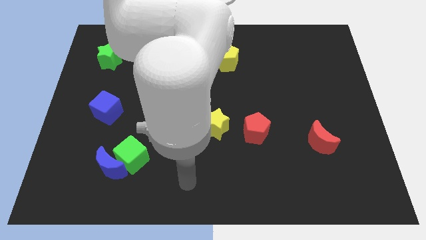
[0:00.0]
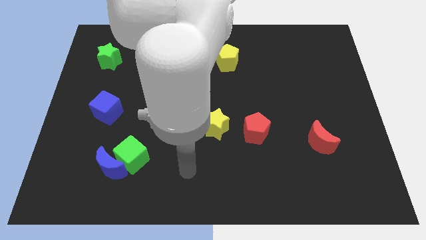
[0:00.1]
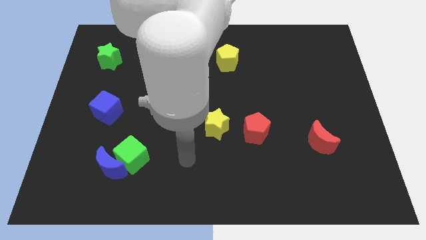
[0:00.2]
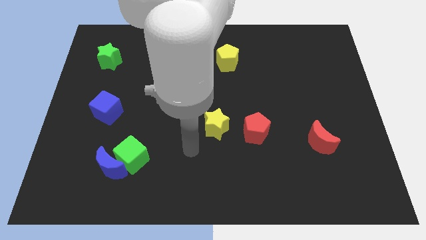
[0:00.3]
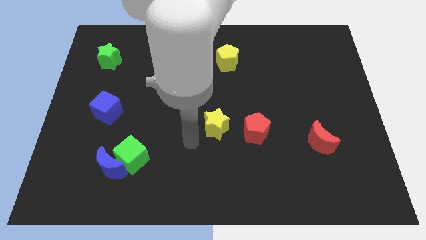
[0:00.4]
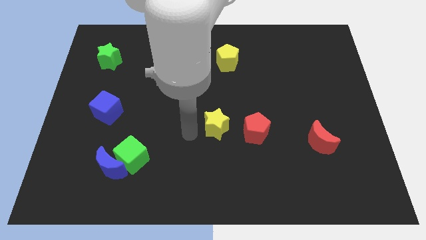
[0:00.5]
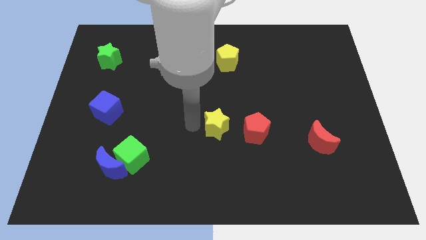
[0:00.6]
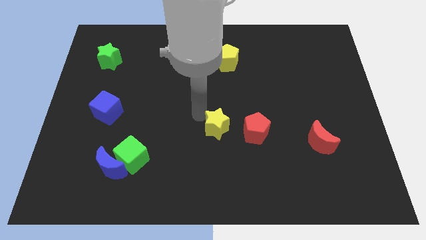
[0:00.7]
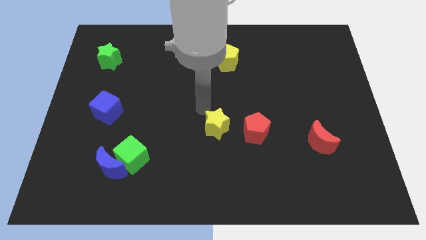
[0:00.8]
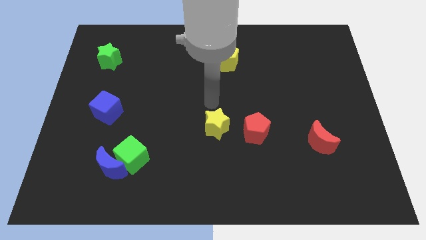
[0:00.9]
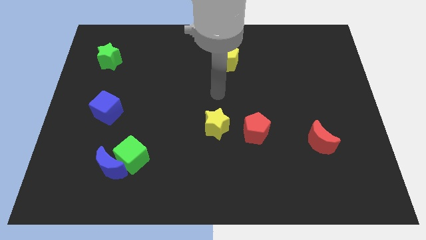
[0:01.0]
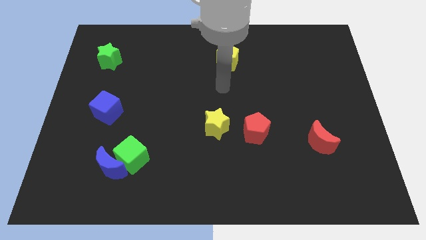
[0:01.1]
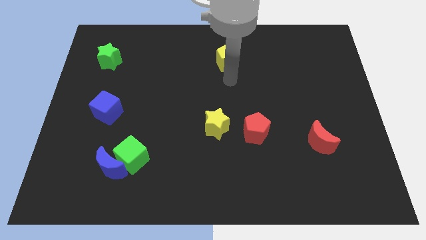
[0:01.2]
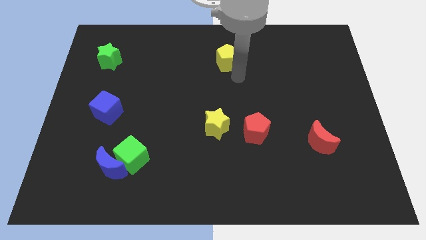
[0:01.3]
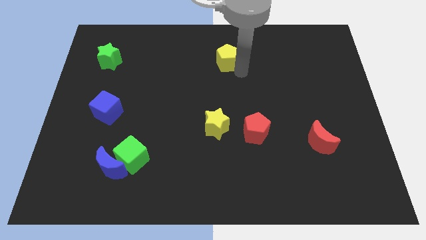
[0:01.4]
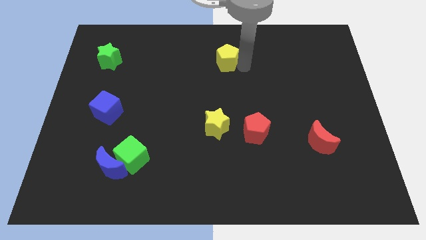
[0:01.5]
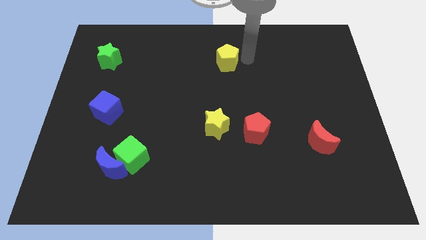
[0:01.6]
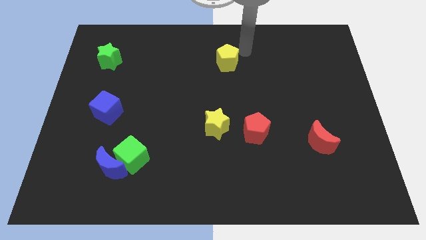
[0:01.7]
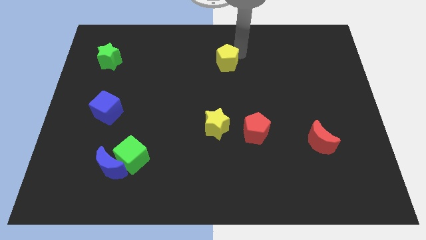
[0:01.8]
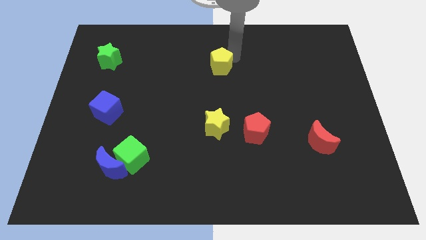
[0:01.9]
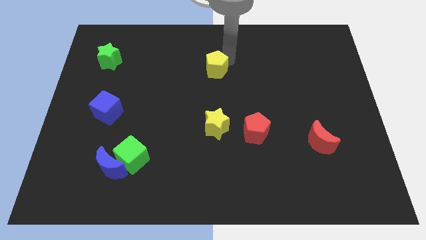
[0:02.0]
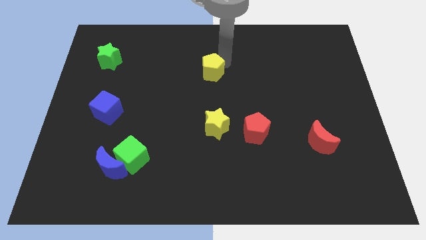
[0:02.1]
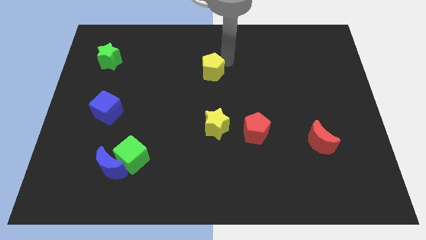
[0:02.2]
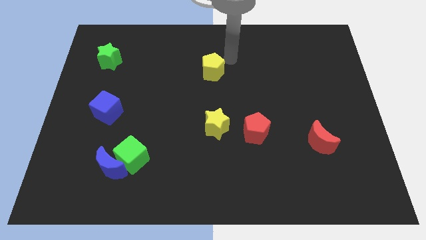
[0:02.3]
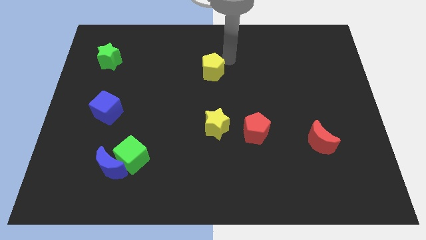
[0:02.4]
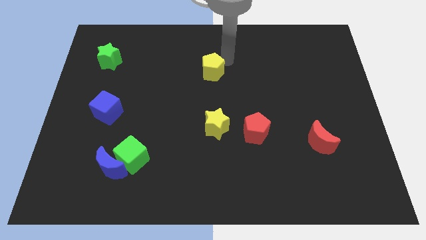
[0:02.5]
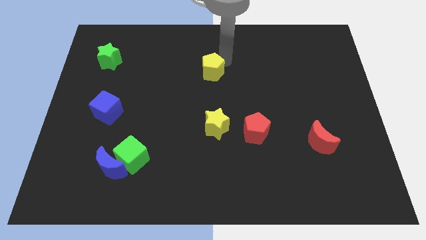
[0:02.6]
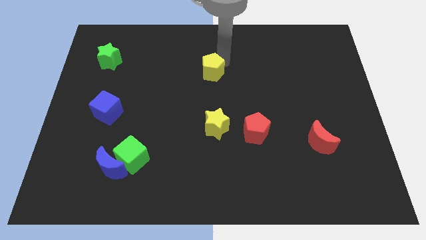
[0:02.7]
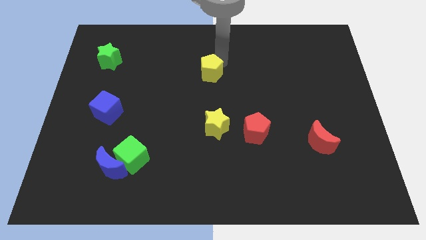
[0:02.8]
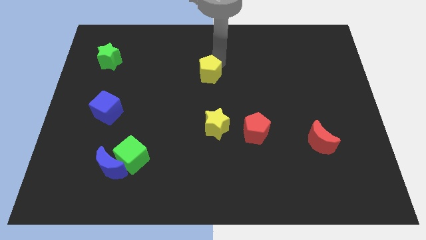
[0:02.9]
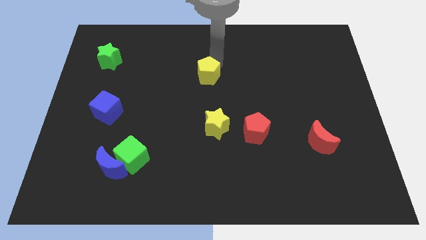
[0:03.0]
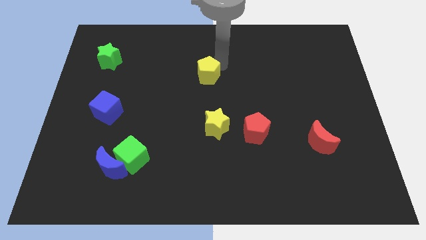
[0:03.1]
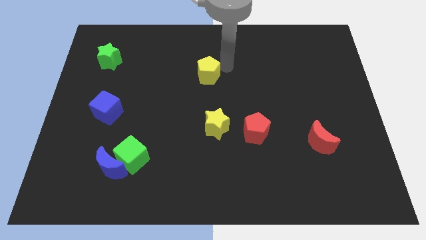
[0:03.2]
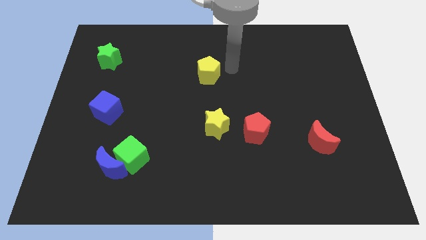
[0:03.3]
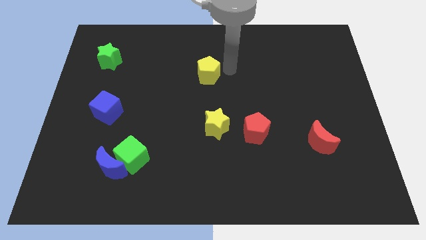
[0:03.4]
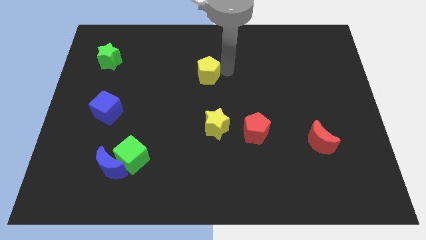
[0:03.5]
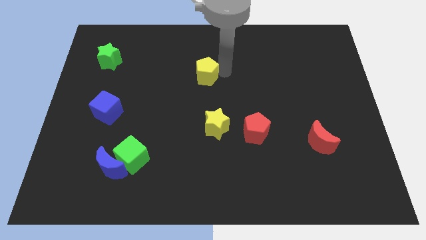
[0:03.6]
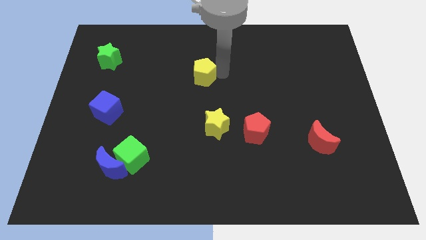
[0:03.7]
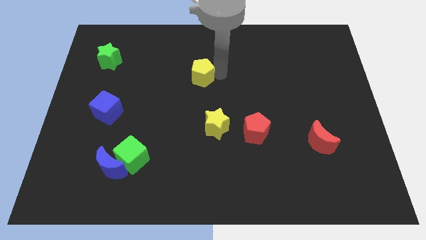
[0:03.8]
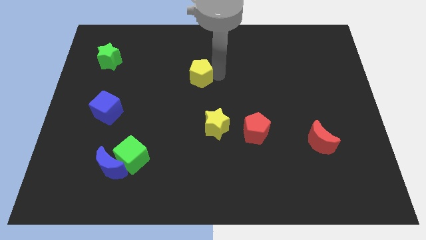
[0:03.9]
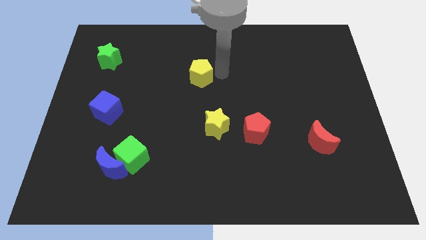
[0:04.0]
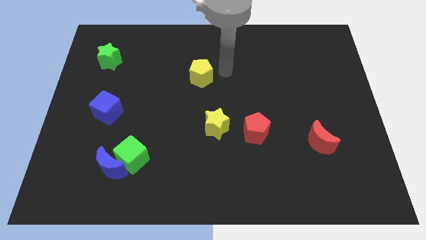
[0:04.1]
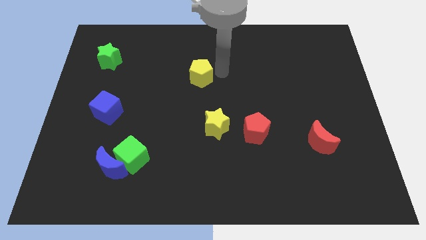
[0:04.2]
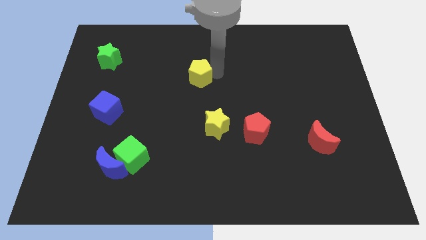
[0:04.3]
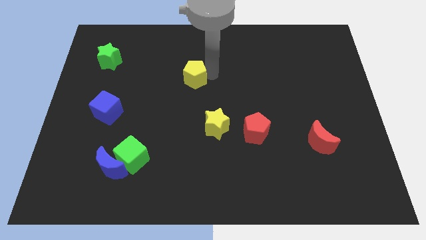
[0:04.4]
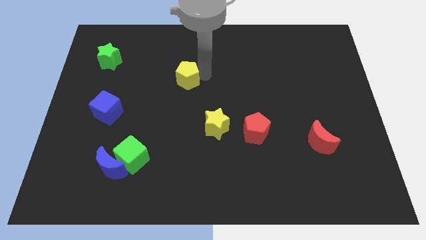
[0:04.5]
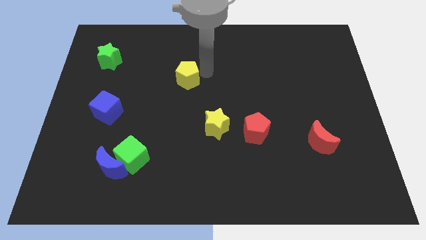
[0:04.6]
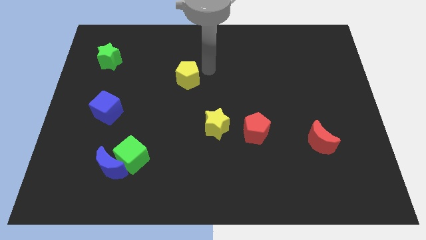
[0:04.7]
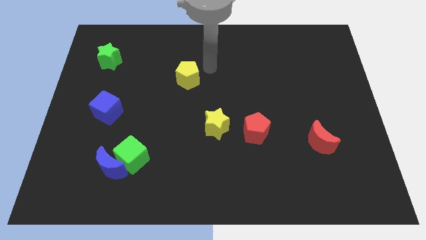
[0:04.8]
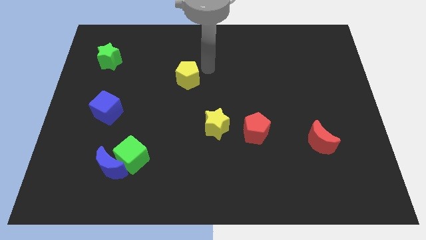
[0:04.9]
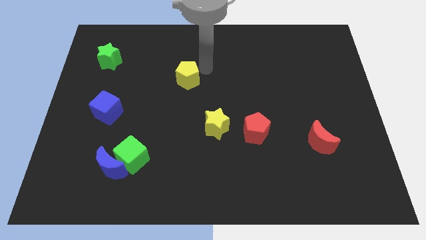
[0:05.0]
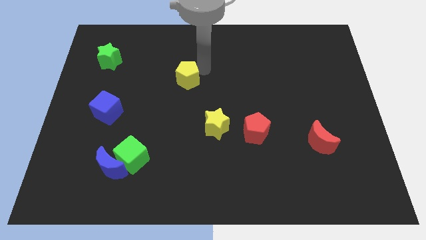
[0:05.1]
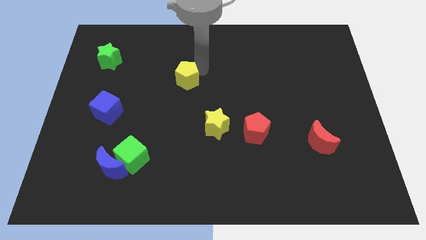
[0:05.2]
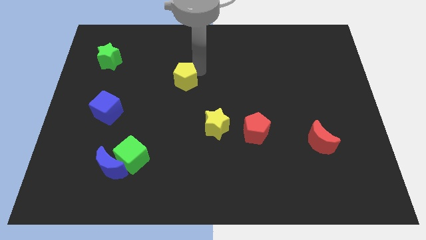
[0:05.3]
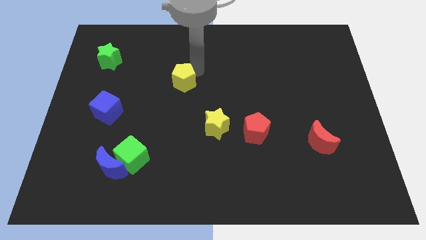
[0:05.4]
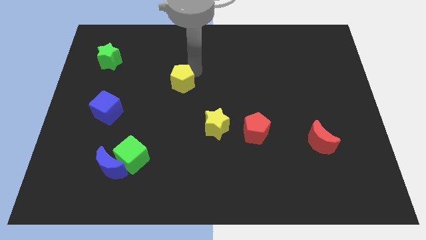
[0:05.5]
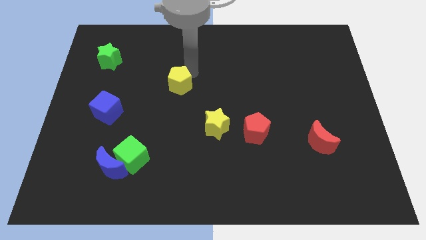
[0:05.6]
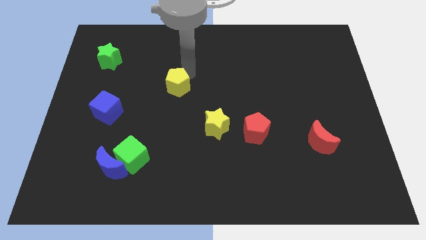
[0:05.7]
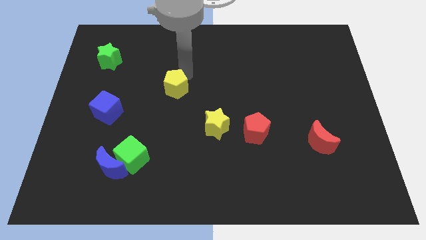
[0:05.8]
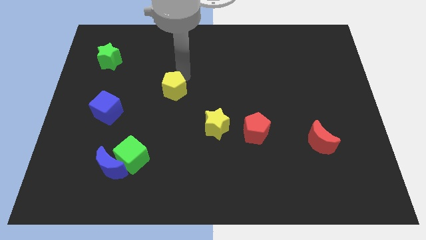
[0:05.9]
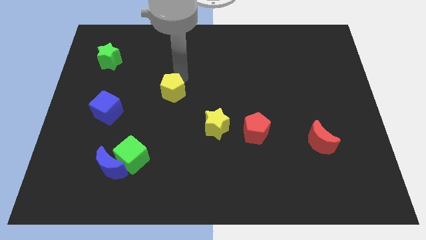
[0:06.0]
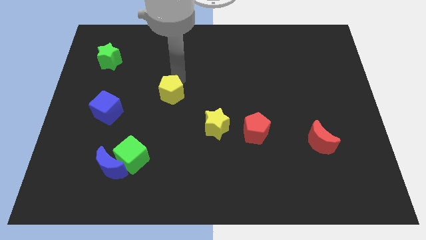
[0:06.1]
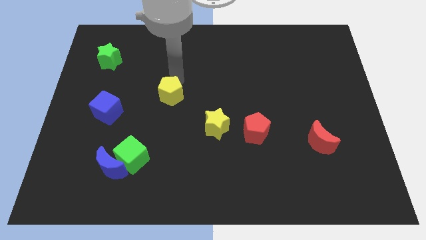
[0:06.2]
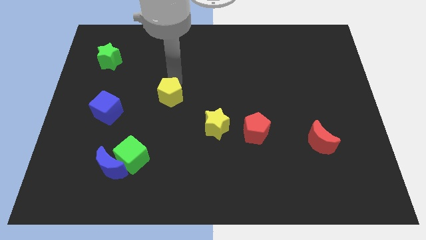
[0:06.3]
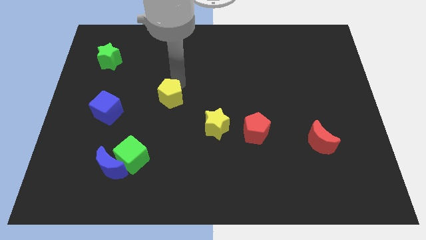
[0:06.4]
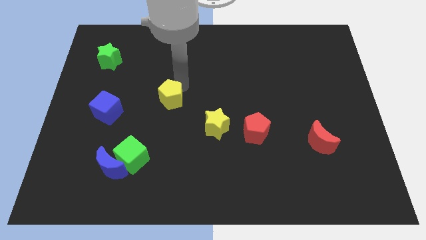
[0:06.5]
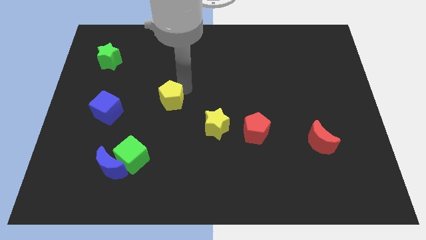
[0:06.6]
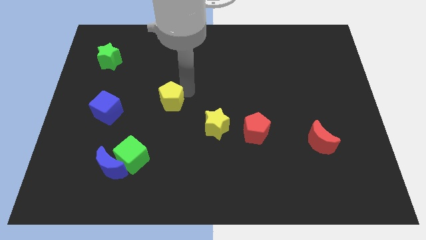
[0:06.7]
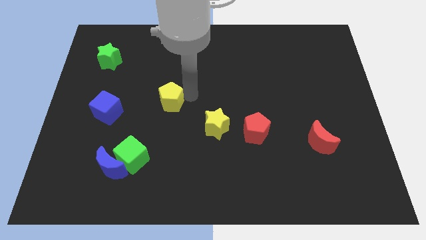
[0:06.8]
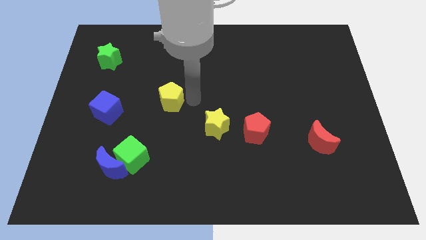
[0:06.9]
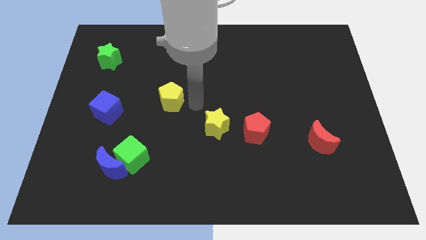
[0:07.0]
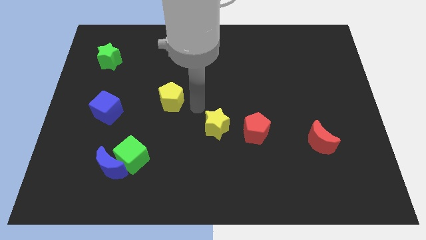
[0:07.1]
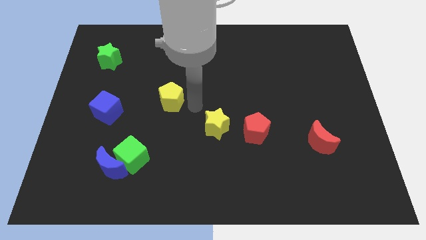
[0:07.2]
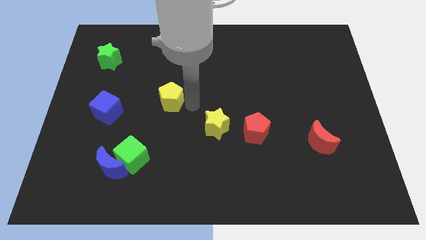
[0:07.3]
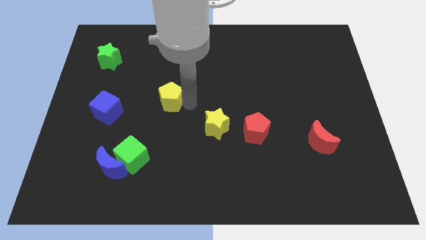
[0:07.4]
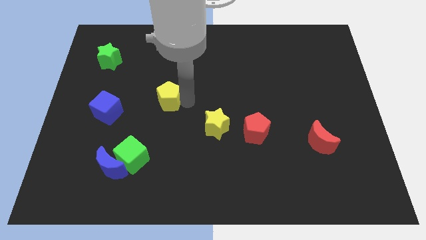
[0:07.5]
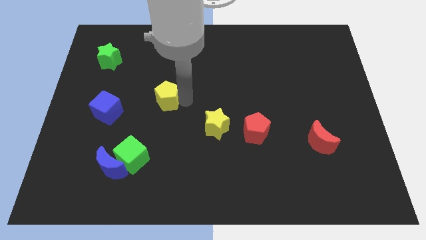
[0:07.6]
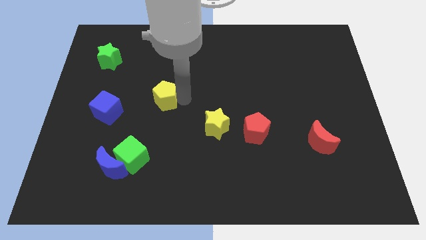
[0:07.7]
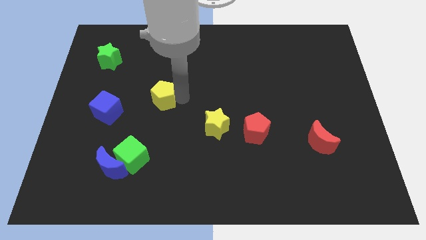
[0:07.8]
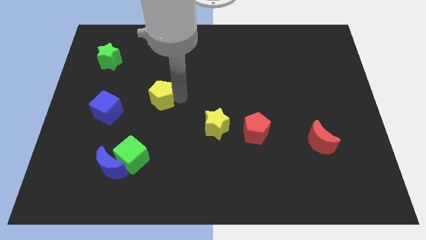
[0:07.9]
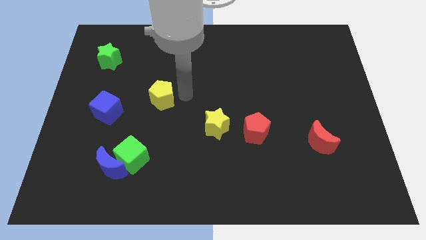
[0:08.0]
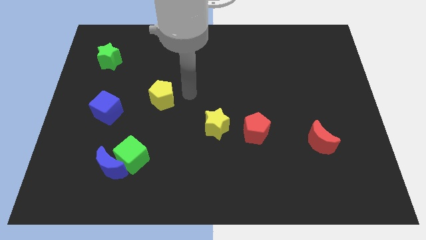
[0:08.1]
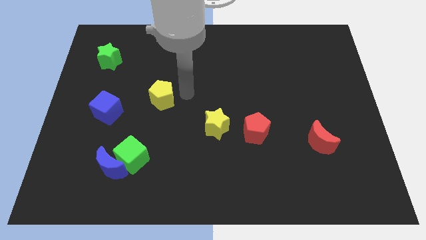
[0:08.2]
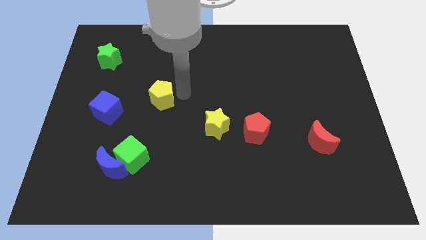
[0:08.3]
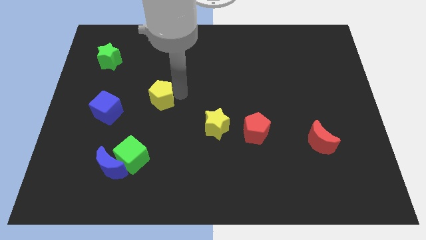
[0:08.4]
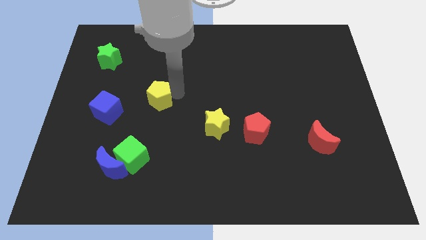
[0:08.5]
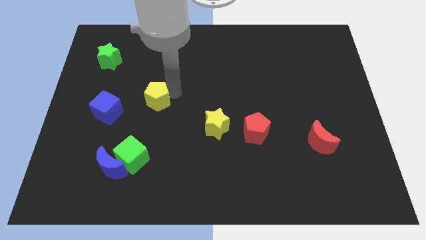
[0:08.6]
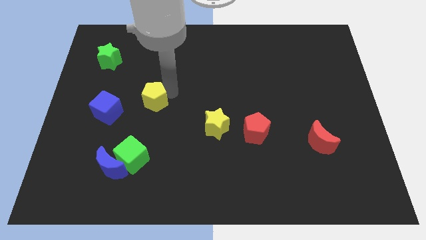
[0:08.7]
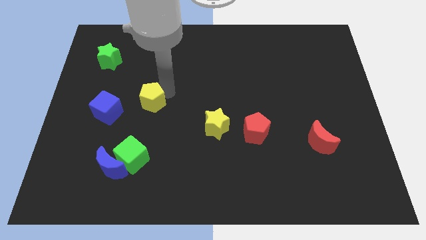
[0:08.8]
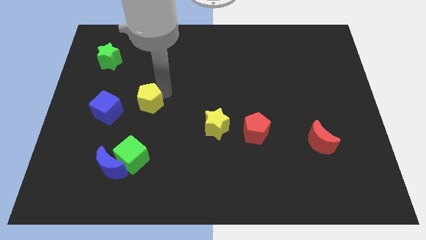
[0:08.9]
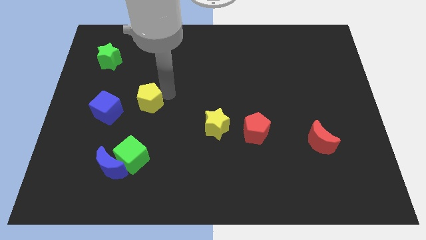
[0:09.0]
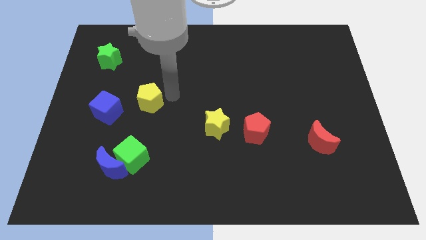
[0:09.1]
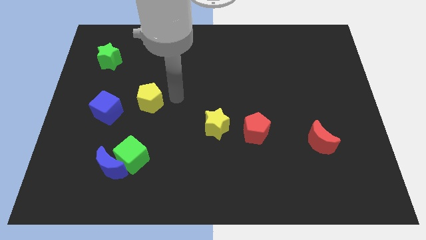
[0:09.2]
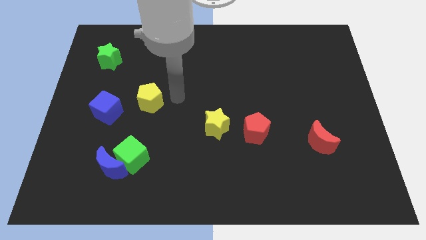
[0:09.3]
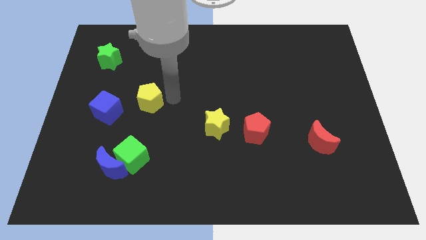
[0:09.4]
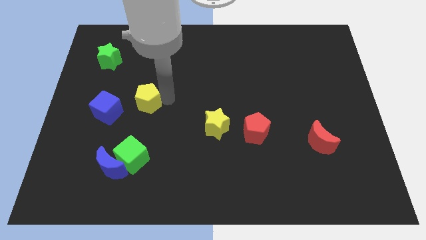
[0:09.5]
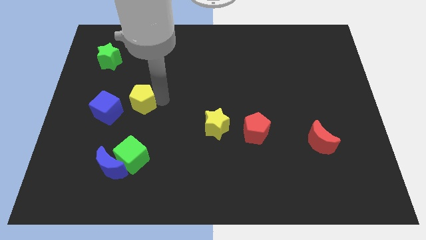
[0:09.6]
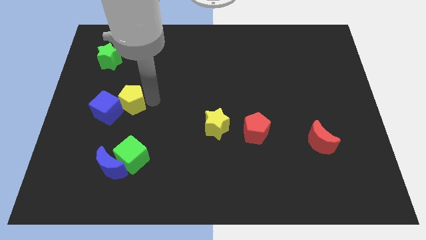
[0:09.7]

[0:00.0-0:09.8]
push the yellow pentagon next to the blue cube
